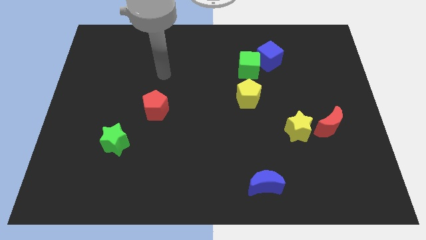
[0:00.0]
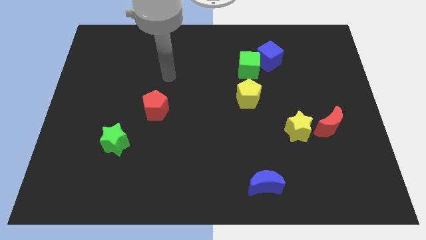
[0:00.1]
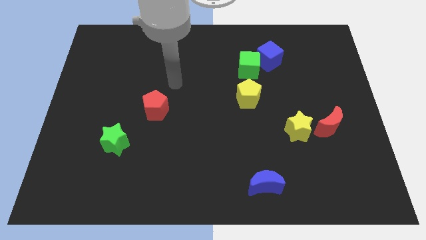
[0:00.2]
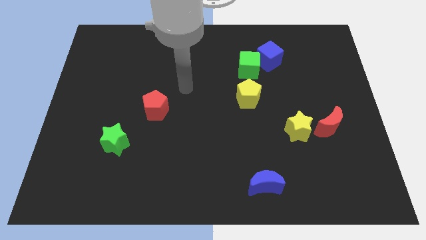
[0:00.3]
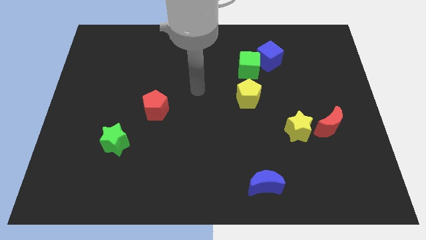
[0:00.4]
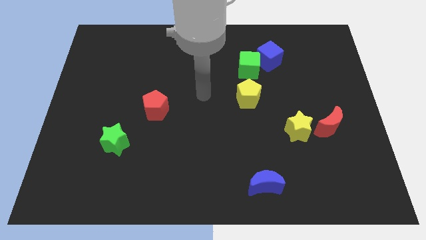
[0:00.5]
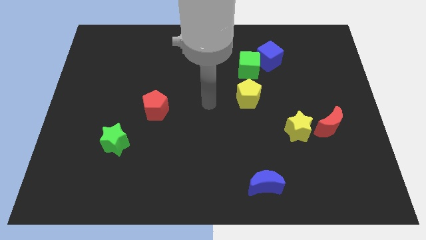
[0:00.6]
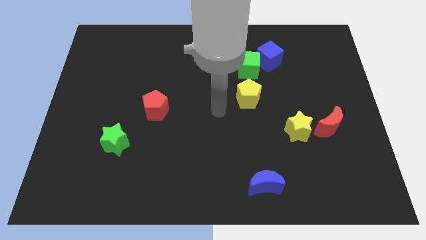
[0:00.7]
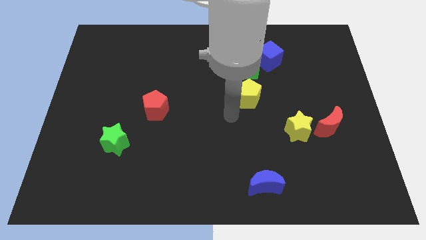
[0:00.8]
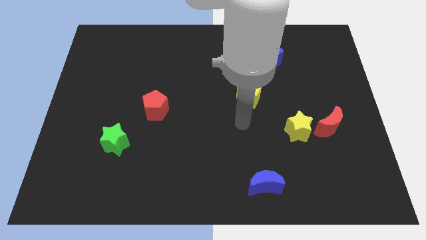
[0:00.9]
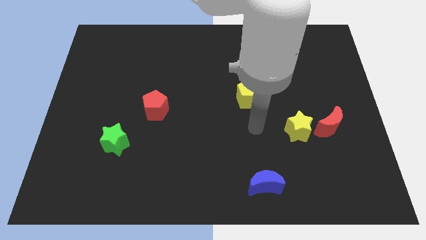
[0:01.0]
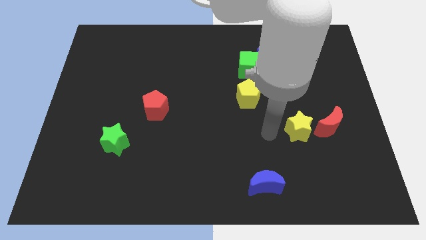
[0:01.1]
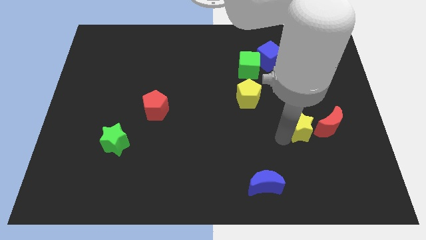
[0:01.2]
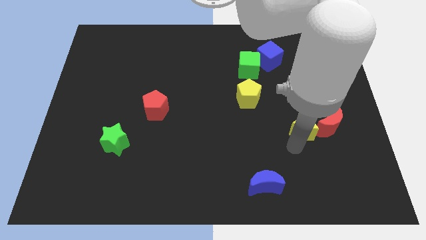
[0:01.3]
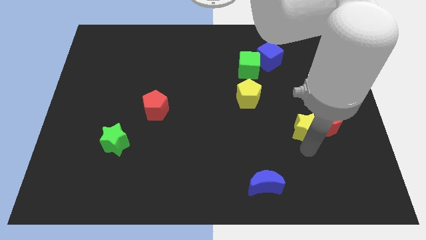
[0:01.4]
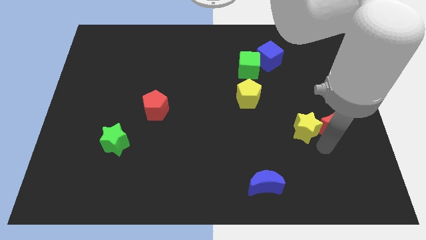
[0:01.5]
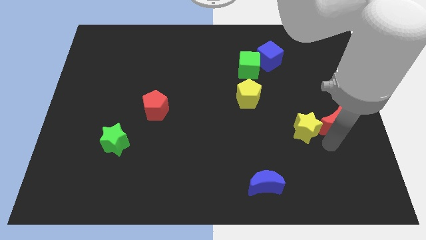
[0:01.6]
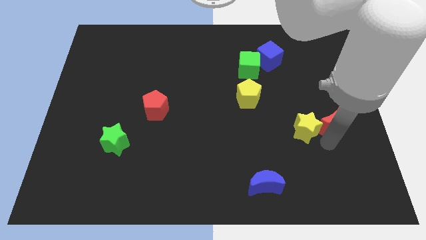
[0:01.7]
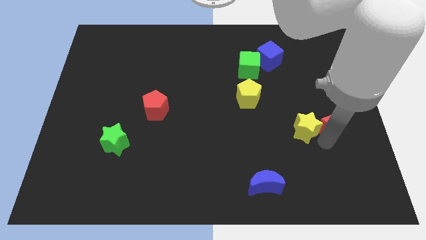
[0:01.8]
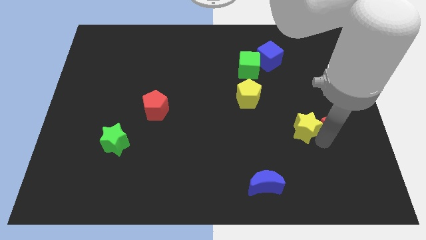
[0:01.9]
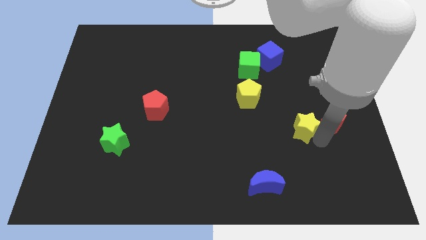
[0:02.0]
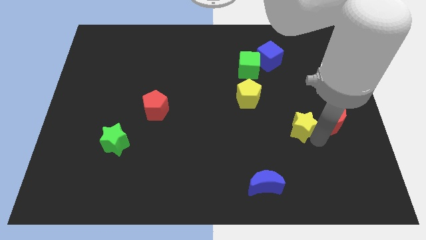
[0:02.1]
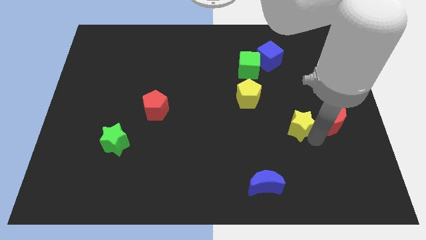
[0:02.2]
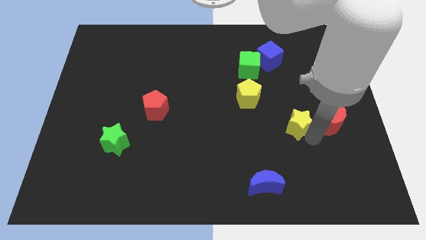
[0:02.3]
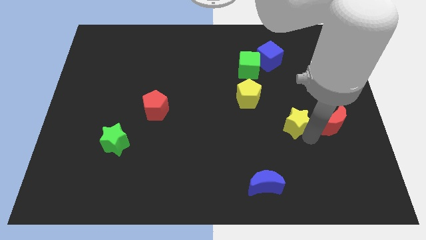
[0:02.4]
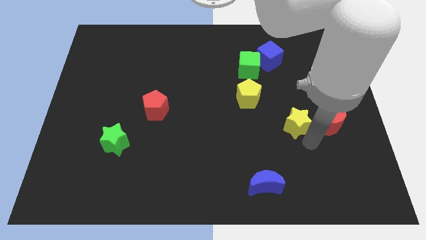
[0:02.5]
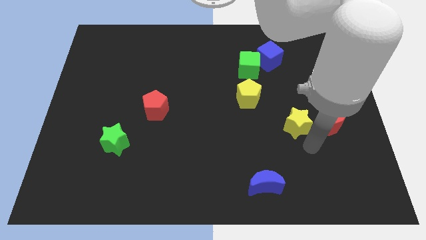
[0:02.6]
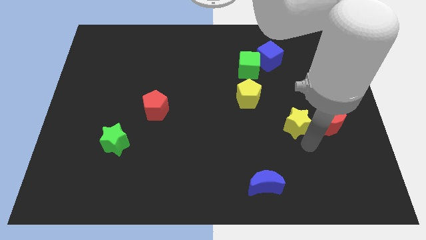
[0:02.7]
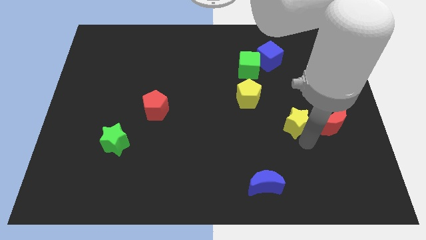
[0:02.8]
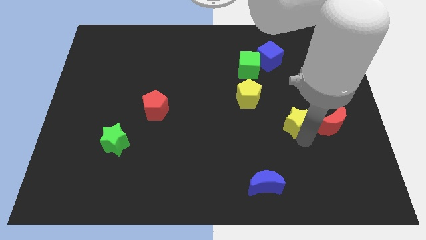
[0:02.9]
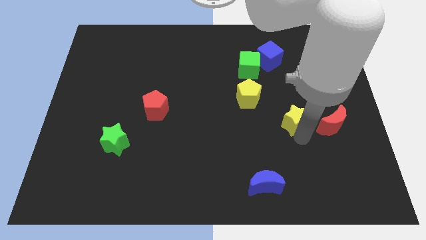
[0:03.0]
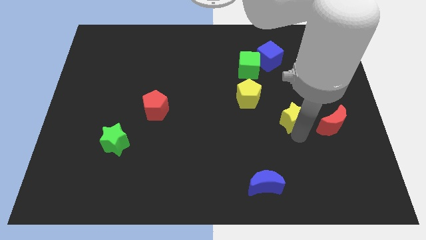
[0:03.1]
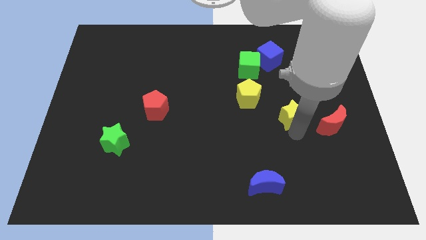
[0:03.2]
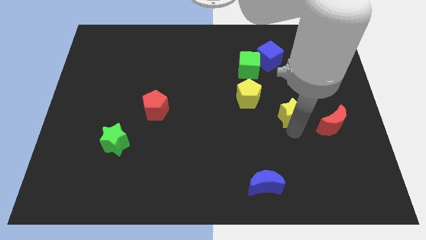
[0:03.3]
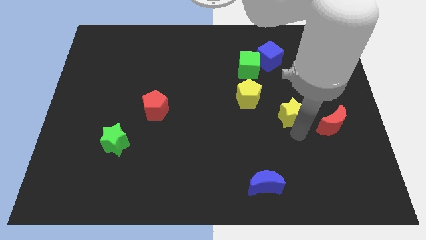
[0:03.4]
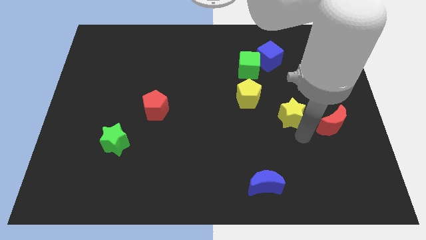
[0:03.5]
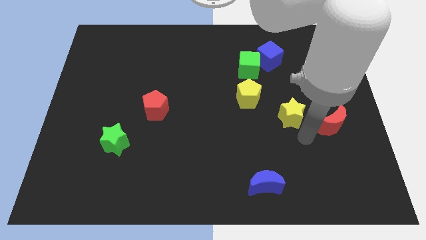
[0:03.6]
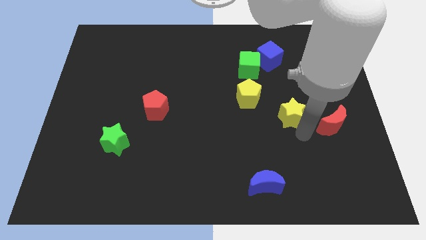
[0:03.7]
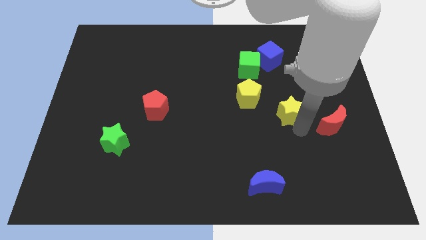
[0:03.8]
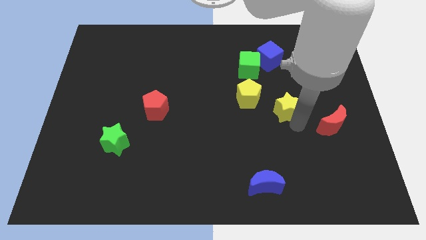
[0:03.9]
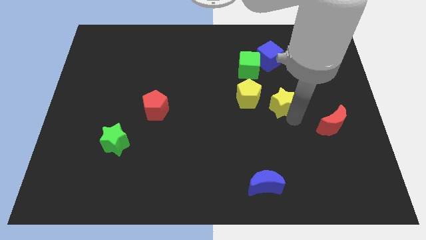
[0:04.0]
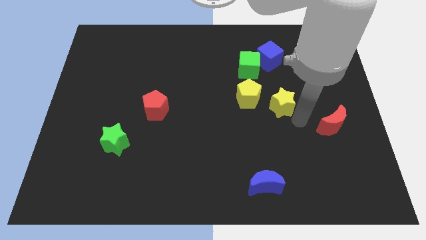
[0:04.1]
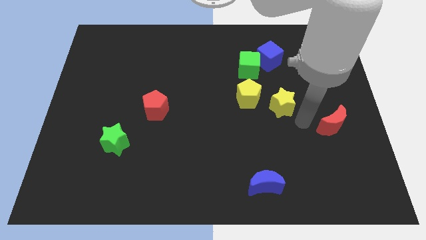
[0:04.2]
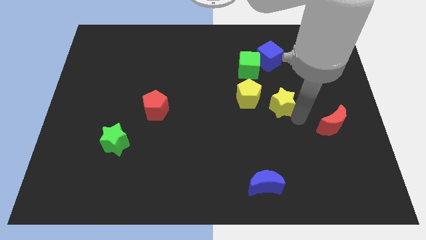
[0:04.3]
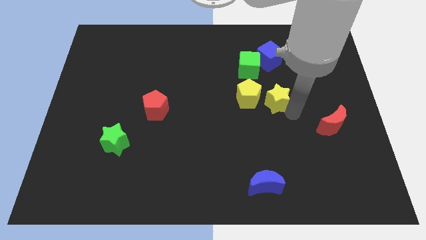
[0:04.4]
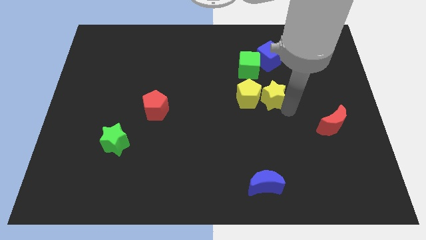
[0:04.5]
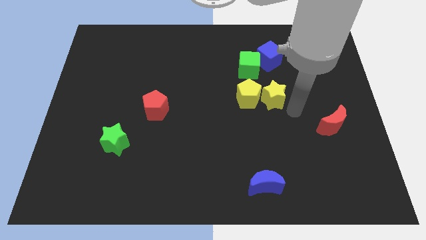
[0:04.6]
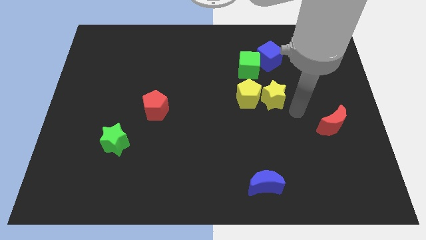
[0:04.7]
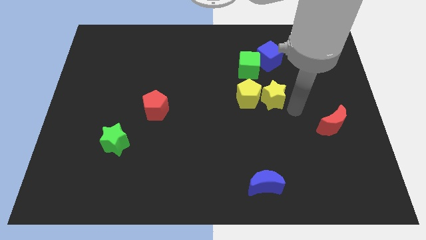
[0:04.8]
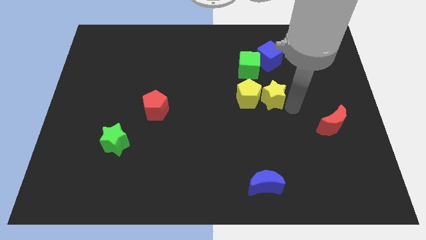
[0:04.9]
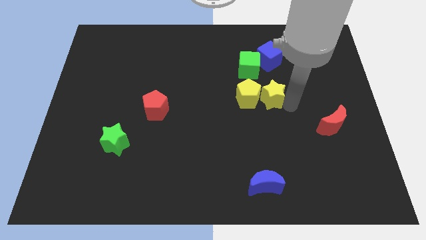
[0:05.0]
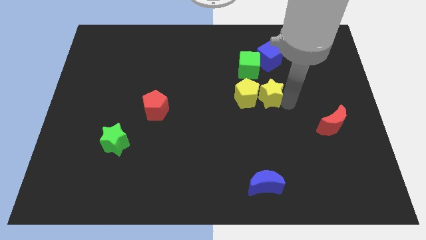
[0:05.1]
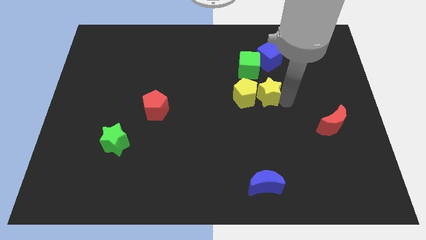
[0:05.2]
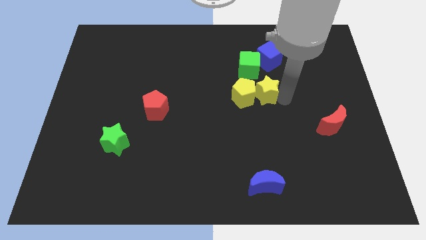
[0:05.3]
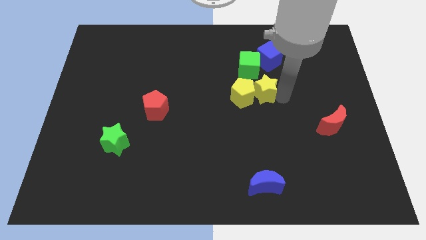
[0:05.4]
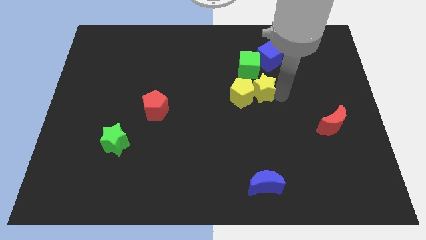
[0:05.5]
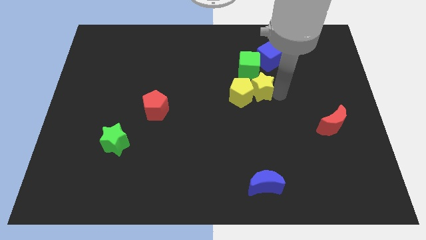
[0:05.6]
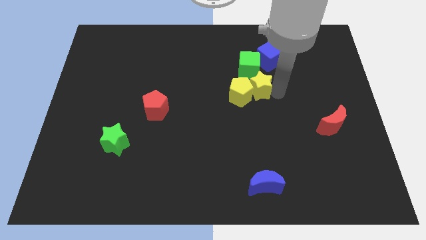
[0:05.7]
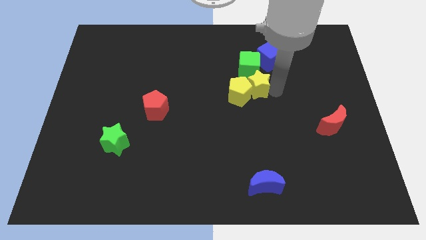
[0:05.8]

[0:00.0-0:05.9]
move the yellow star to the bottom left of the blue cube

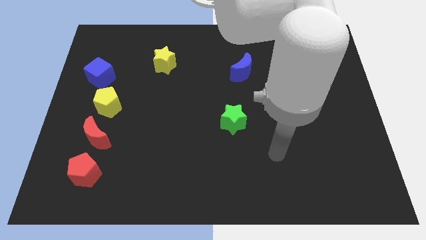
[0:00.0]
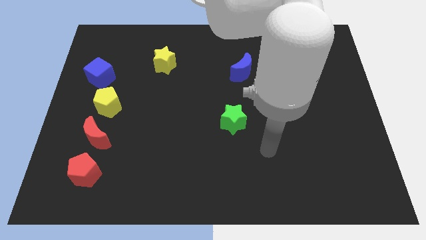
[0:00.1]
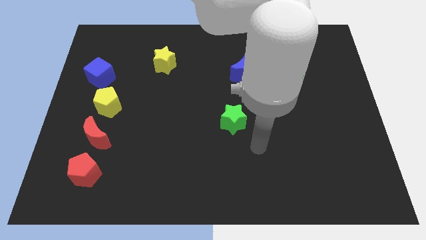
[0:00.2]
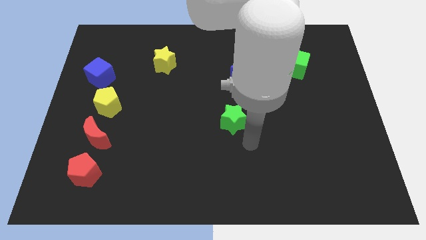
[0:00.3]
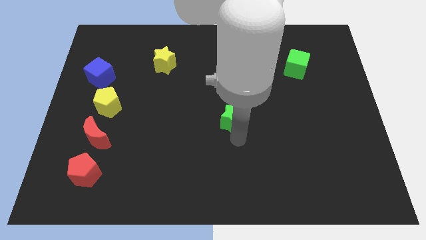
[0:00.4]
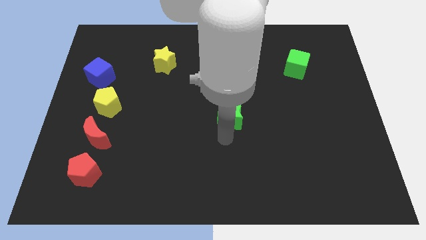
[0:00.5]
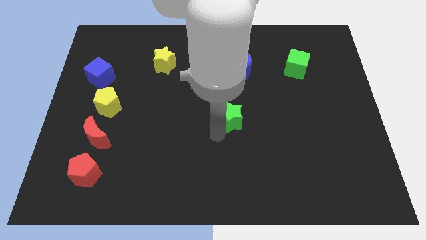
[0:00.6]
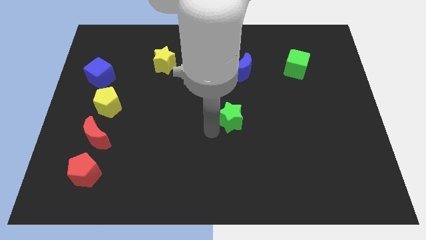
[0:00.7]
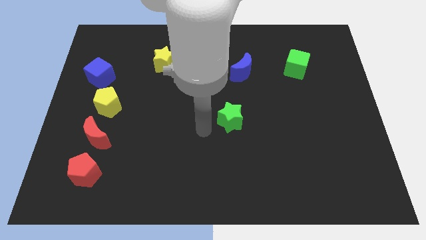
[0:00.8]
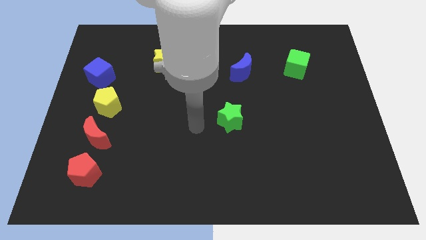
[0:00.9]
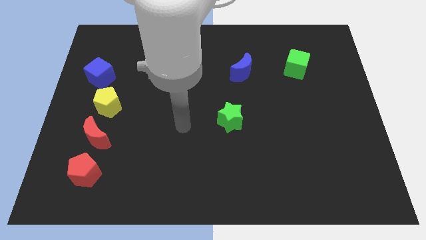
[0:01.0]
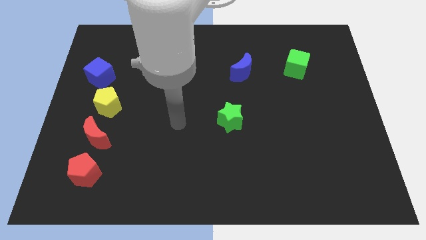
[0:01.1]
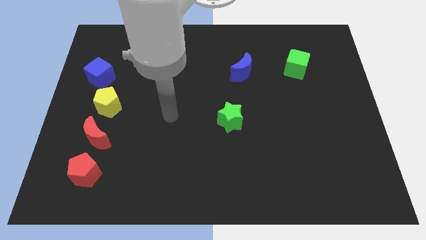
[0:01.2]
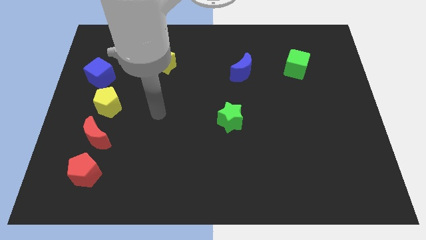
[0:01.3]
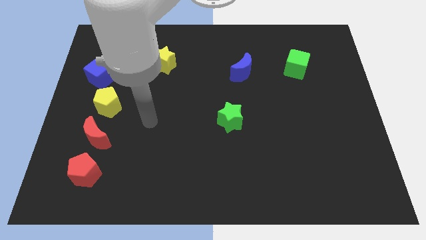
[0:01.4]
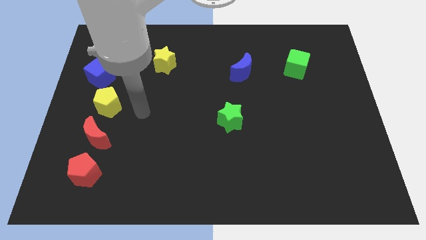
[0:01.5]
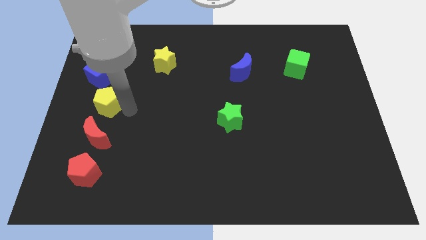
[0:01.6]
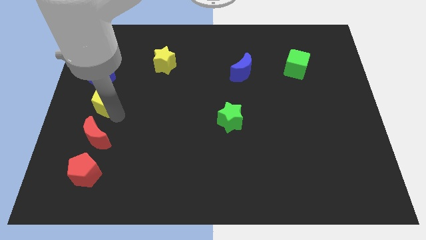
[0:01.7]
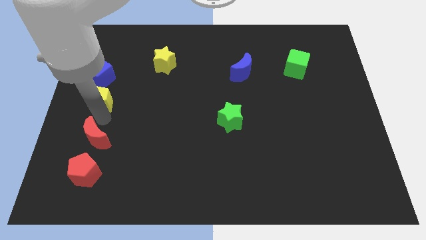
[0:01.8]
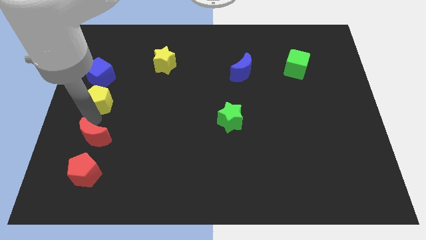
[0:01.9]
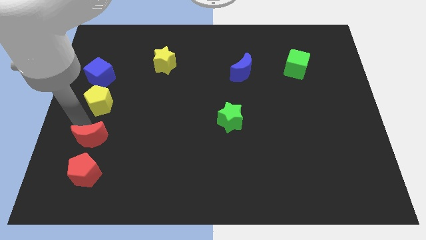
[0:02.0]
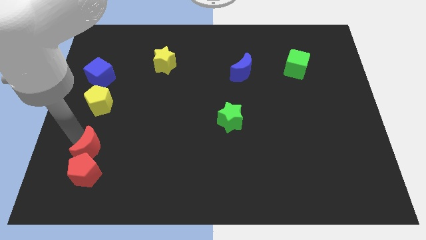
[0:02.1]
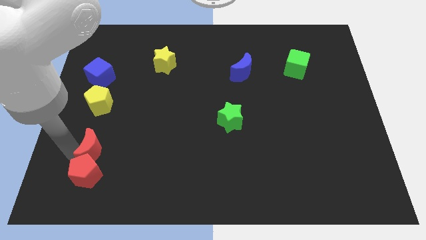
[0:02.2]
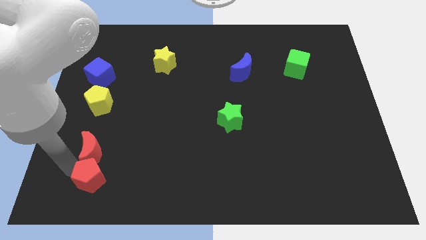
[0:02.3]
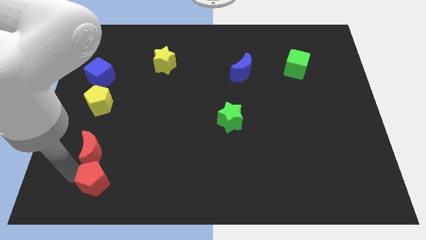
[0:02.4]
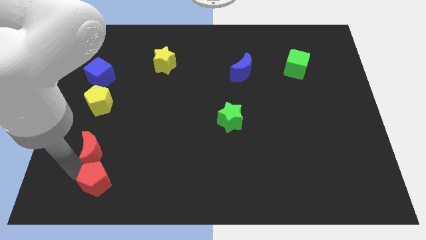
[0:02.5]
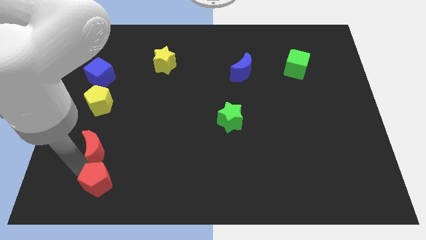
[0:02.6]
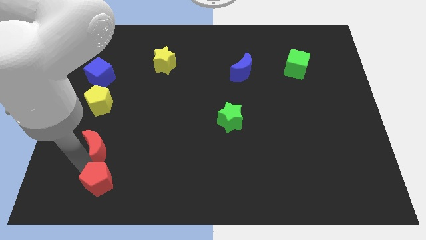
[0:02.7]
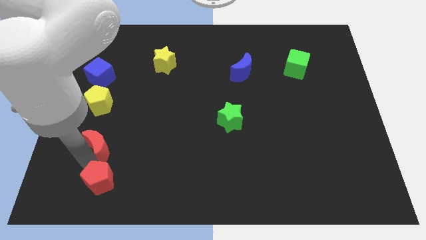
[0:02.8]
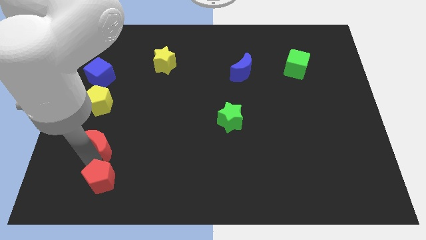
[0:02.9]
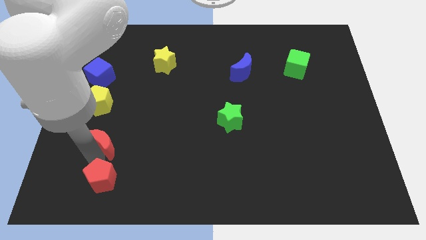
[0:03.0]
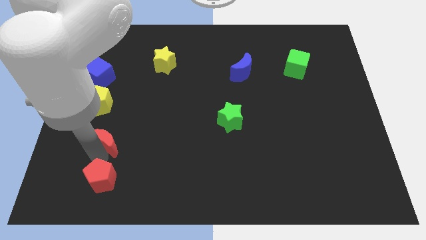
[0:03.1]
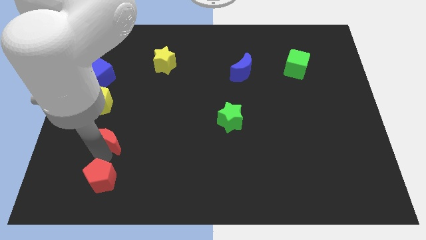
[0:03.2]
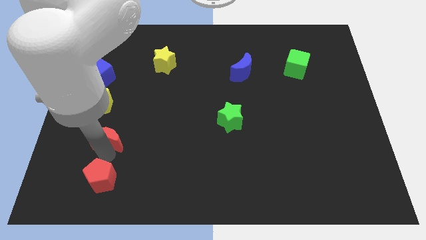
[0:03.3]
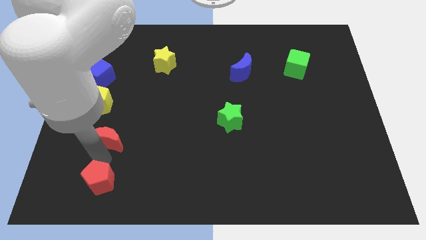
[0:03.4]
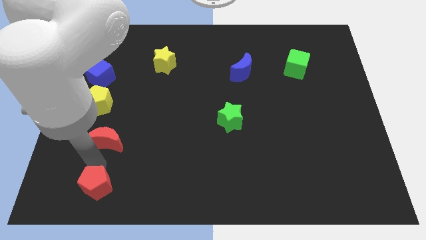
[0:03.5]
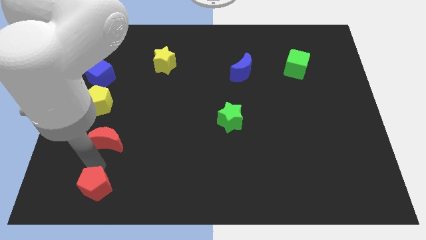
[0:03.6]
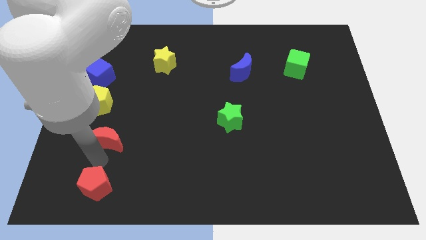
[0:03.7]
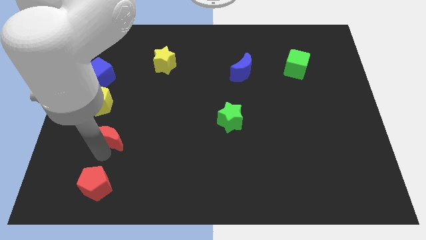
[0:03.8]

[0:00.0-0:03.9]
put the red moon diagonally down and to the right of the yellow pentagon
